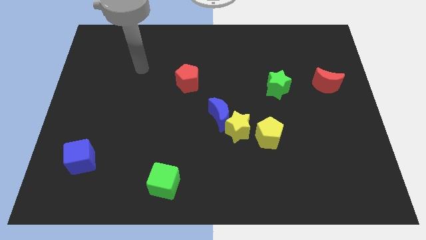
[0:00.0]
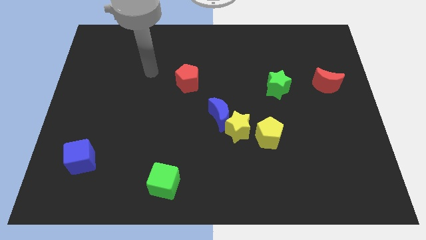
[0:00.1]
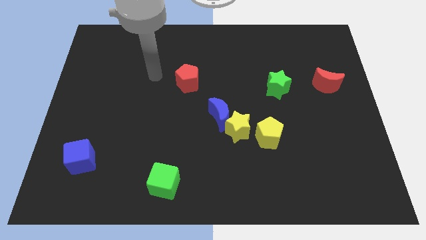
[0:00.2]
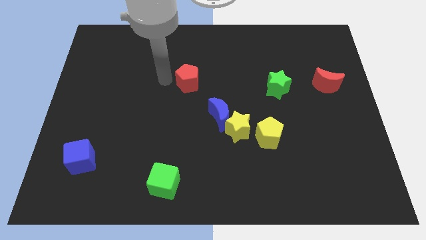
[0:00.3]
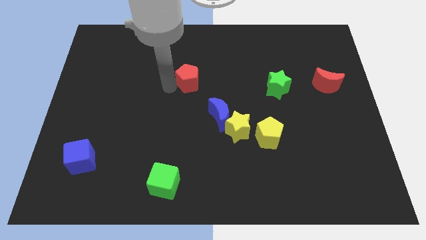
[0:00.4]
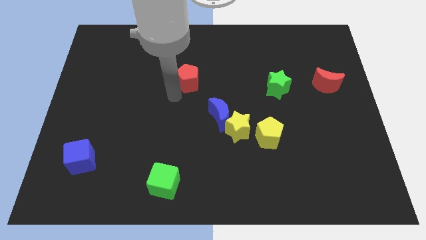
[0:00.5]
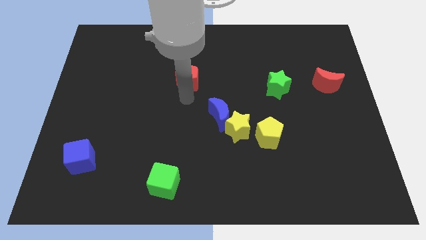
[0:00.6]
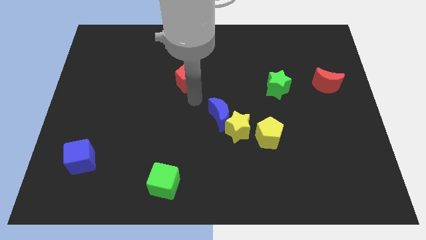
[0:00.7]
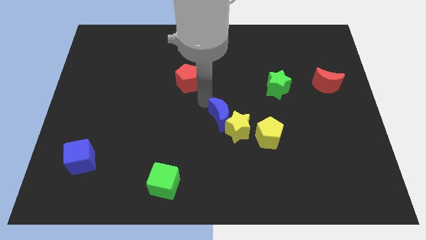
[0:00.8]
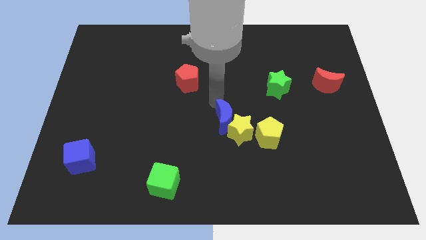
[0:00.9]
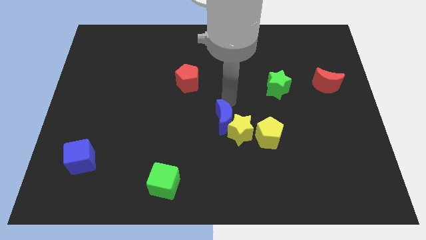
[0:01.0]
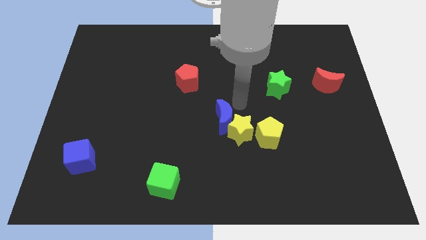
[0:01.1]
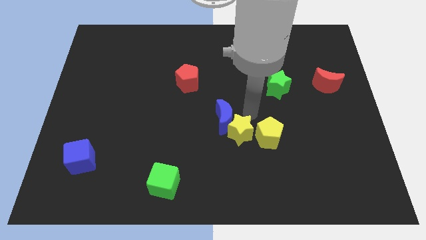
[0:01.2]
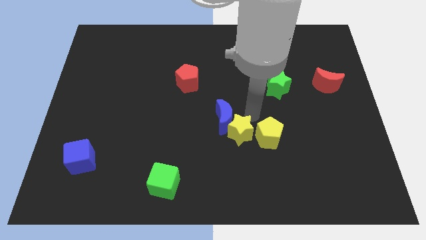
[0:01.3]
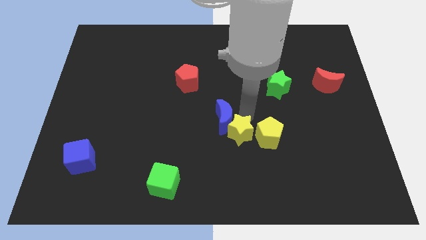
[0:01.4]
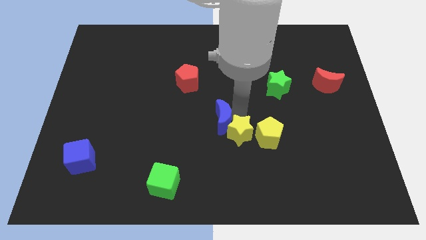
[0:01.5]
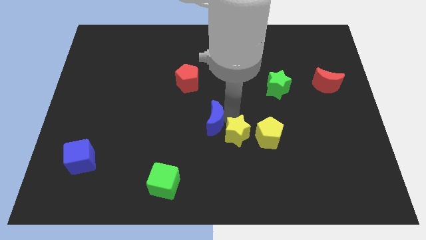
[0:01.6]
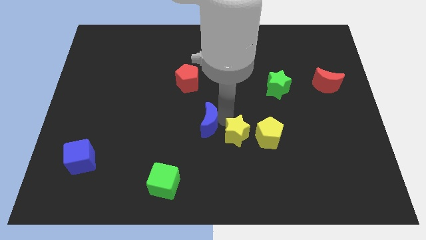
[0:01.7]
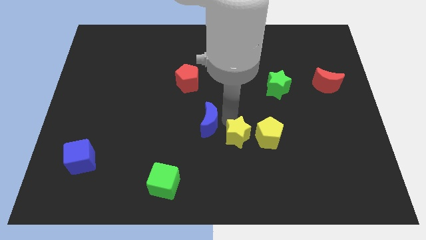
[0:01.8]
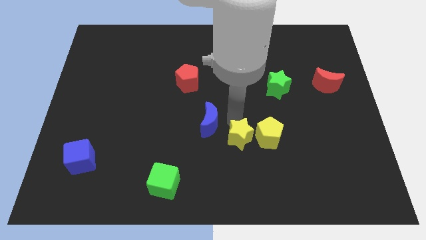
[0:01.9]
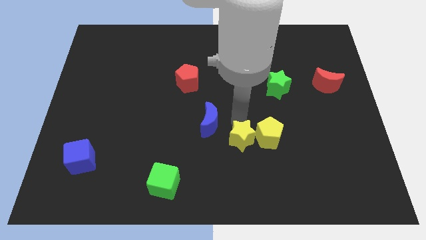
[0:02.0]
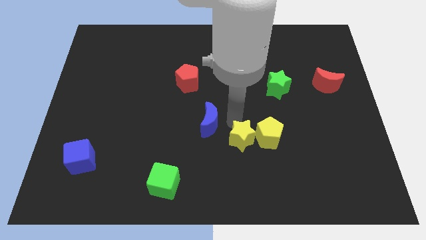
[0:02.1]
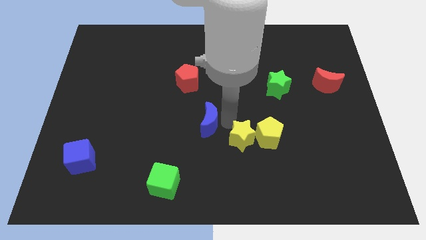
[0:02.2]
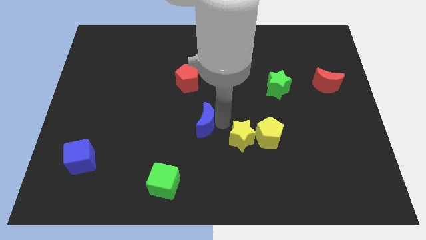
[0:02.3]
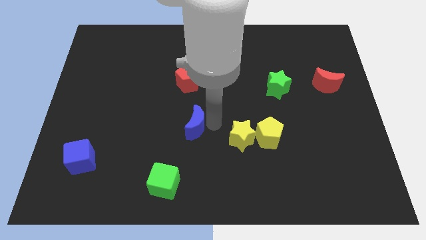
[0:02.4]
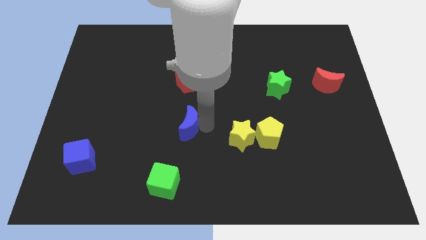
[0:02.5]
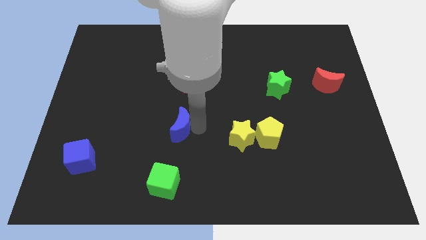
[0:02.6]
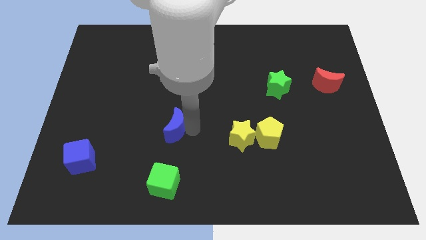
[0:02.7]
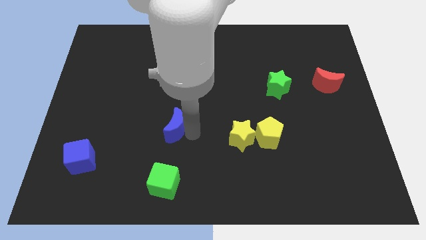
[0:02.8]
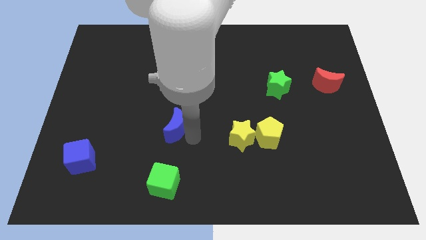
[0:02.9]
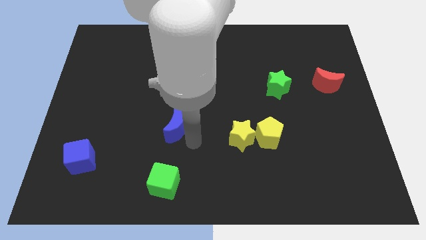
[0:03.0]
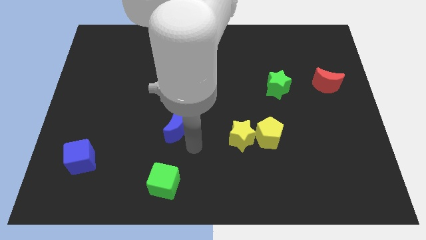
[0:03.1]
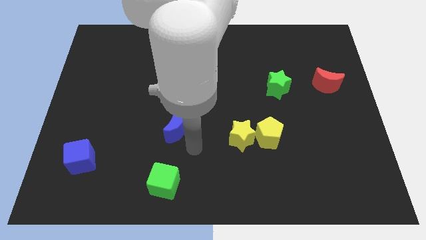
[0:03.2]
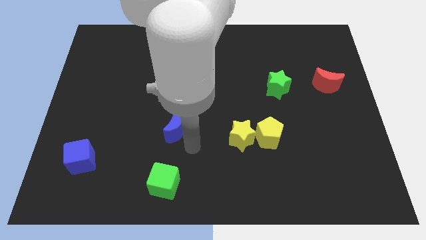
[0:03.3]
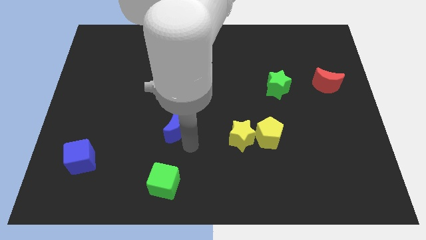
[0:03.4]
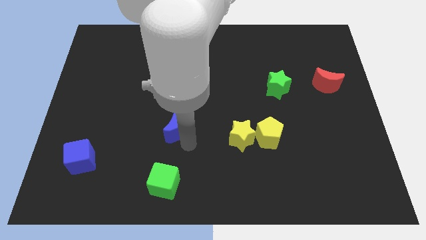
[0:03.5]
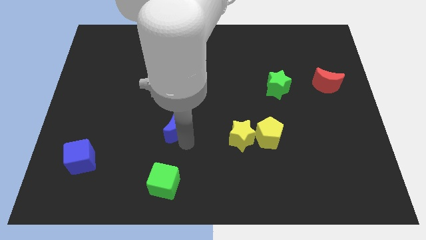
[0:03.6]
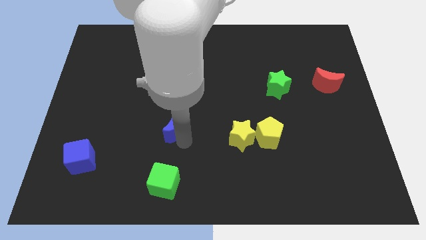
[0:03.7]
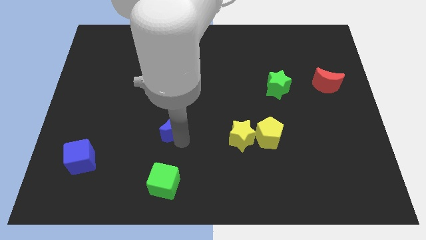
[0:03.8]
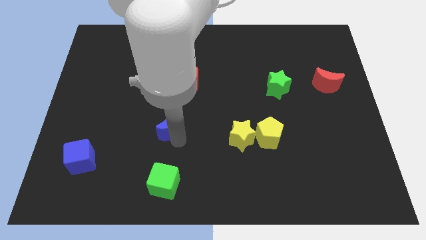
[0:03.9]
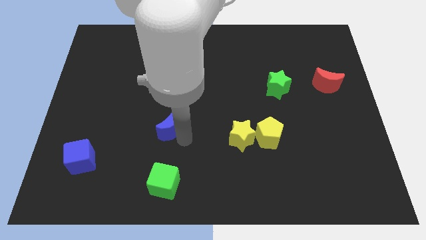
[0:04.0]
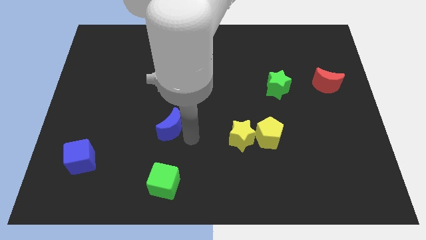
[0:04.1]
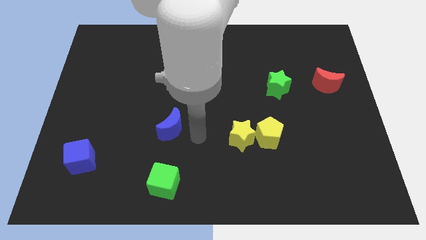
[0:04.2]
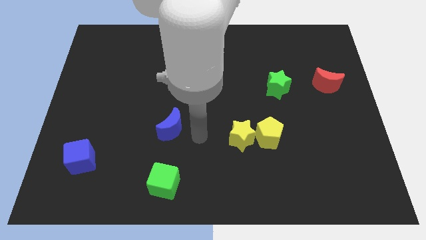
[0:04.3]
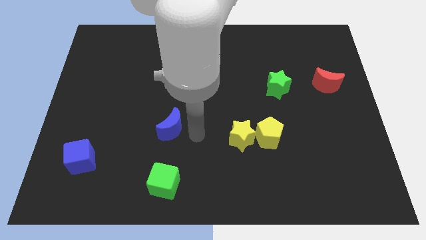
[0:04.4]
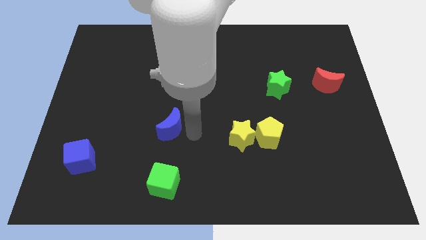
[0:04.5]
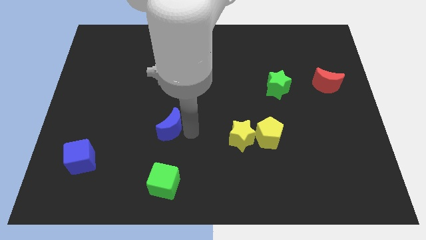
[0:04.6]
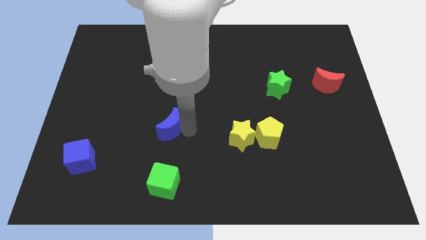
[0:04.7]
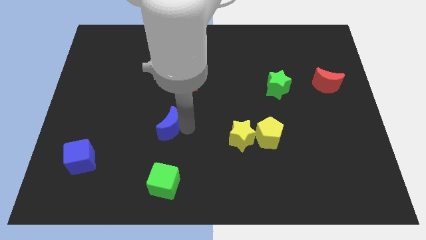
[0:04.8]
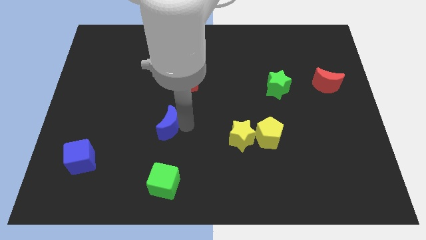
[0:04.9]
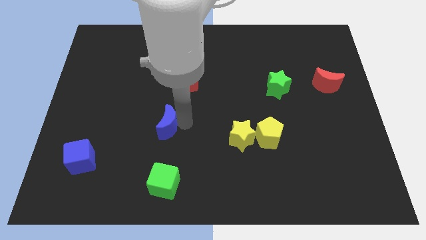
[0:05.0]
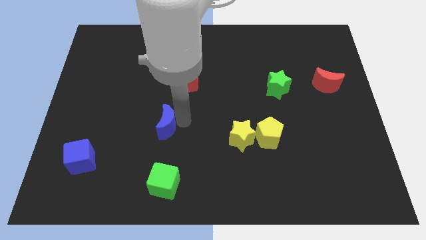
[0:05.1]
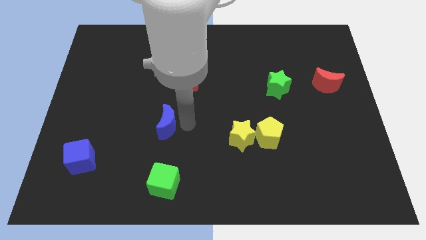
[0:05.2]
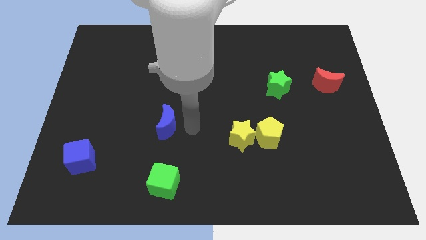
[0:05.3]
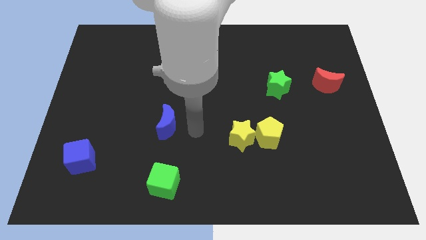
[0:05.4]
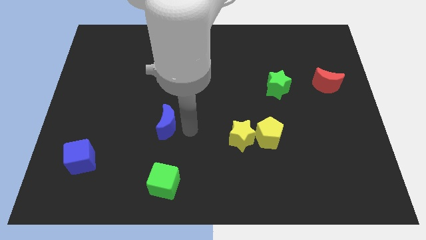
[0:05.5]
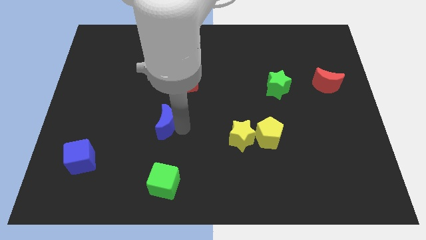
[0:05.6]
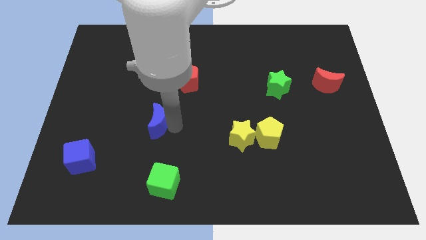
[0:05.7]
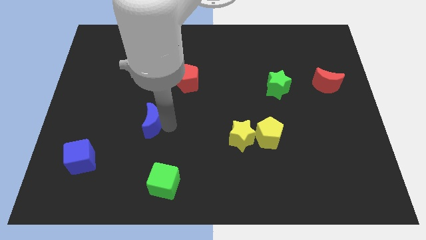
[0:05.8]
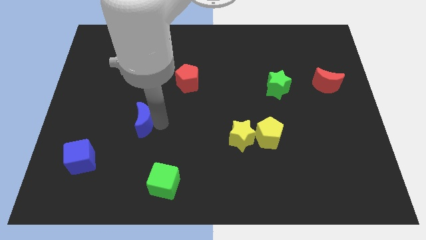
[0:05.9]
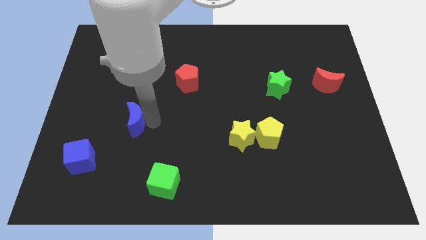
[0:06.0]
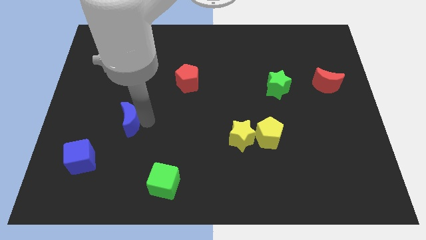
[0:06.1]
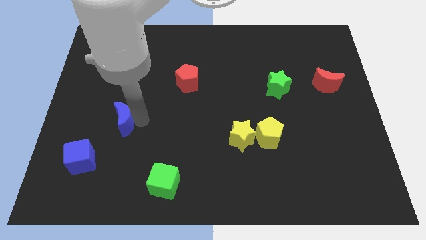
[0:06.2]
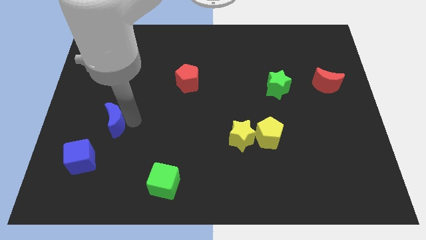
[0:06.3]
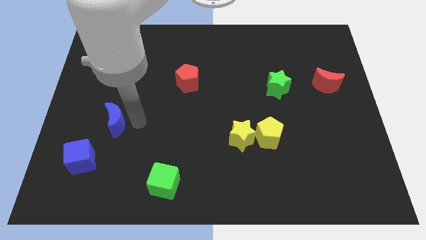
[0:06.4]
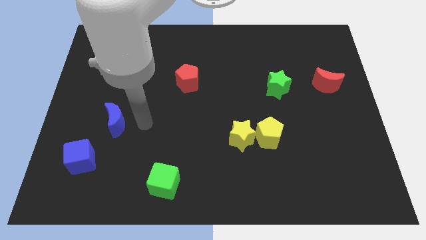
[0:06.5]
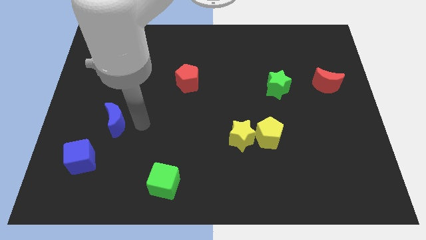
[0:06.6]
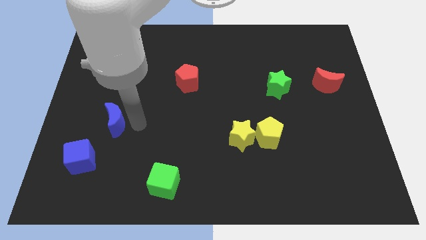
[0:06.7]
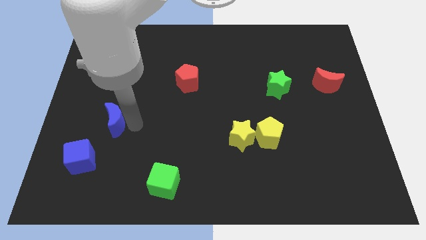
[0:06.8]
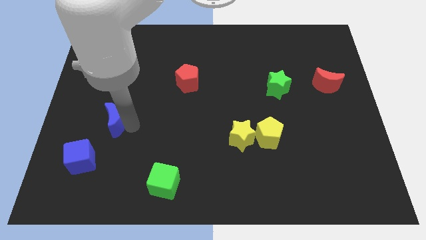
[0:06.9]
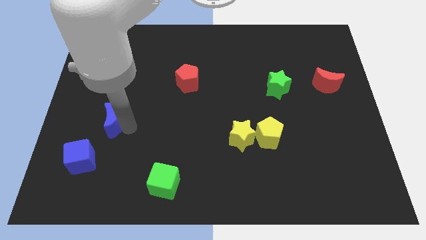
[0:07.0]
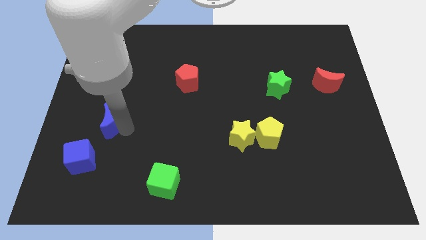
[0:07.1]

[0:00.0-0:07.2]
put the blue moon to the top side of the blue cube
